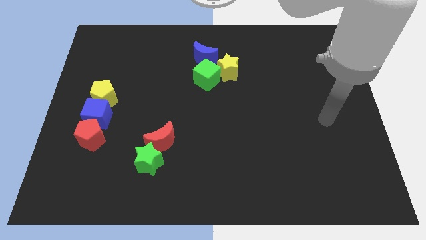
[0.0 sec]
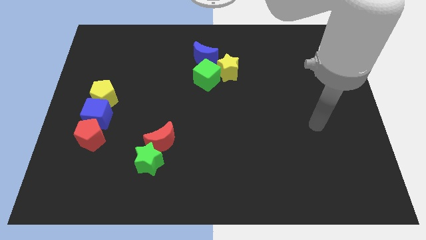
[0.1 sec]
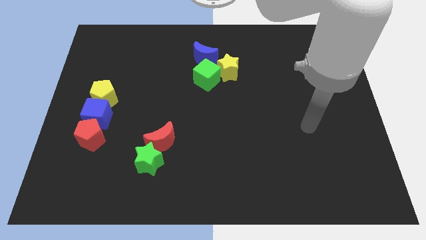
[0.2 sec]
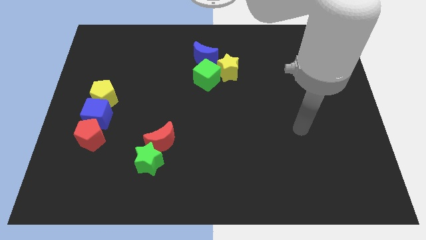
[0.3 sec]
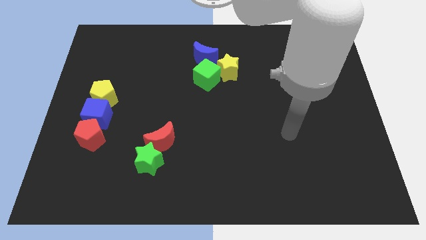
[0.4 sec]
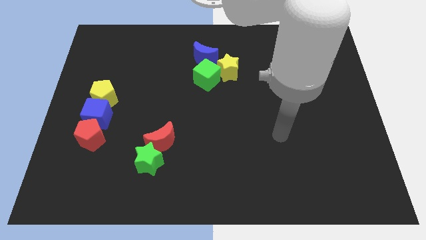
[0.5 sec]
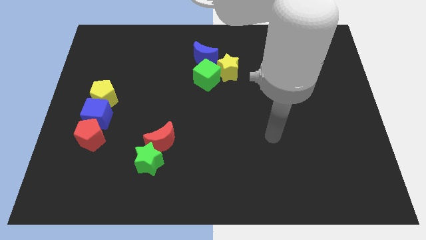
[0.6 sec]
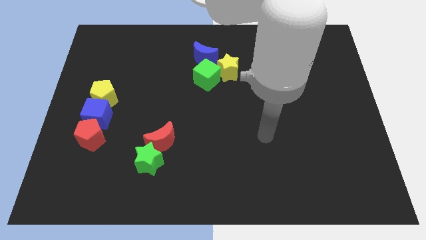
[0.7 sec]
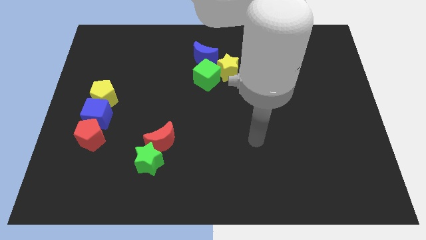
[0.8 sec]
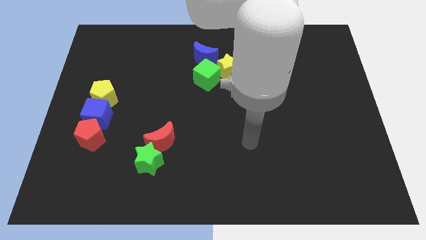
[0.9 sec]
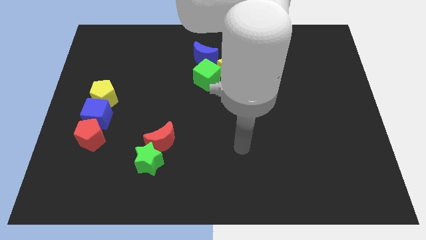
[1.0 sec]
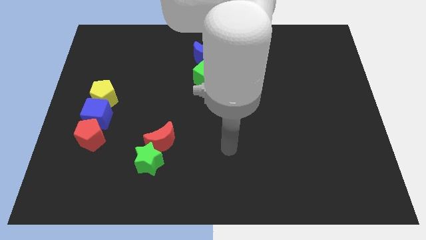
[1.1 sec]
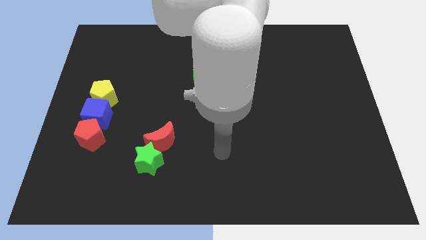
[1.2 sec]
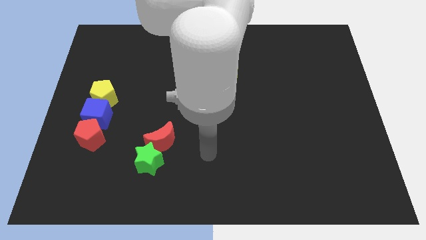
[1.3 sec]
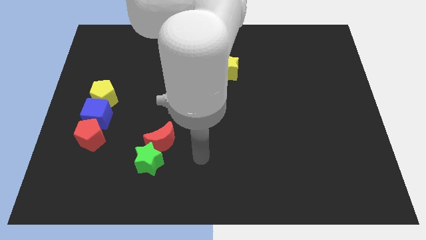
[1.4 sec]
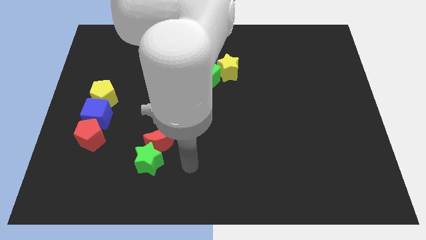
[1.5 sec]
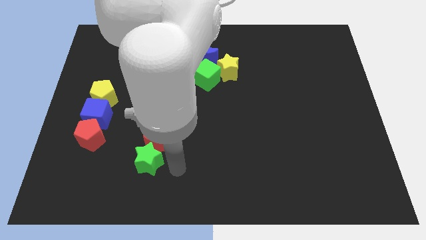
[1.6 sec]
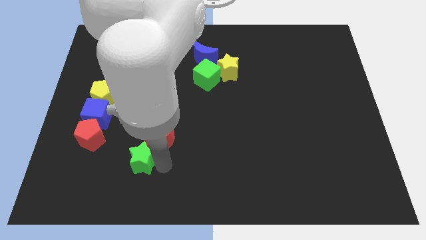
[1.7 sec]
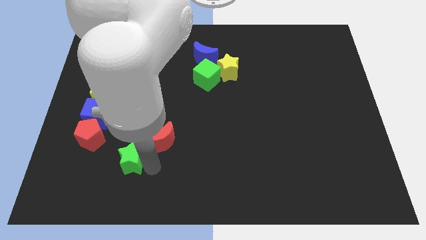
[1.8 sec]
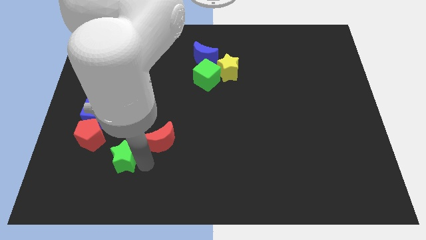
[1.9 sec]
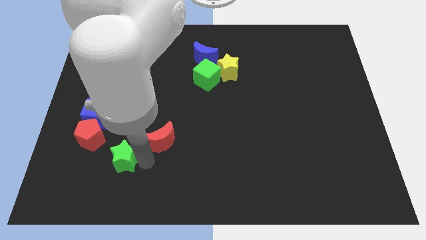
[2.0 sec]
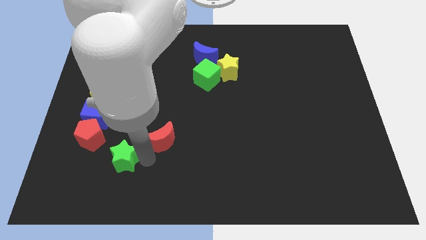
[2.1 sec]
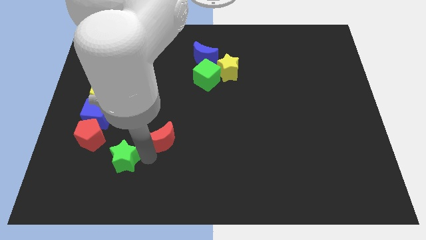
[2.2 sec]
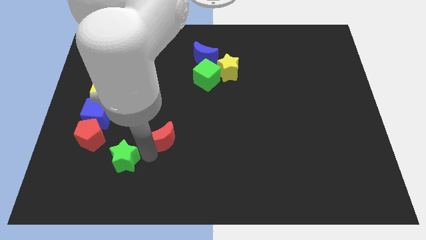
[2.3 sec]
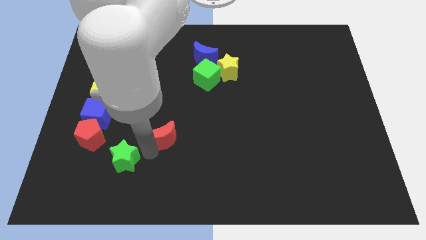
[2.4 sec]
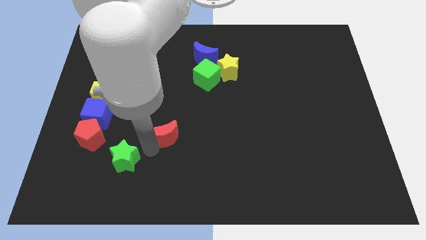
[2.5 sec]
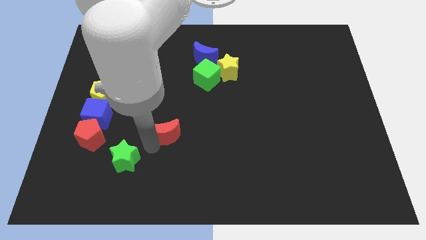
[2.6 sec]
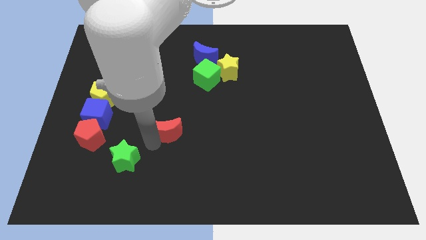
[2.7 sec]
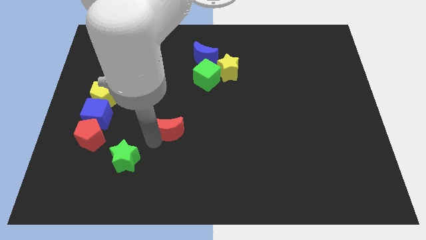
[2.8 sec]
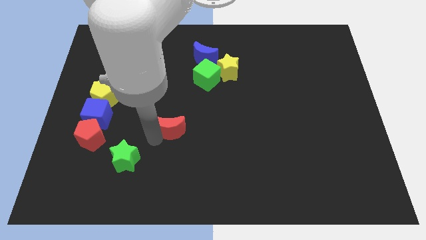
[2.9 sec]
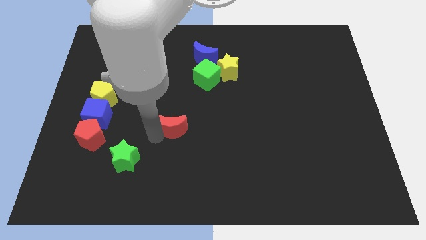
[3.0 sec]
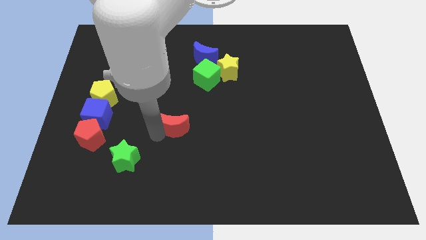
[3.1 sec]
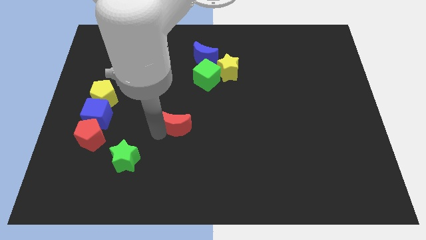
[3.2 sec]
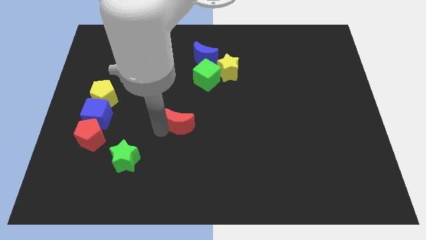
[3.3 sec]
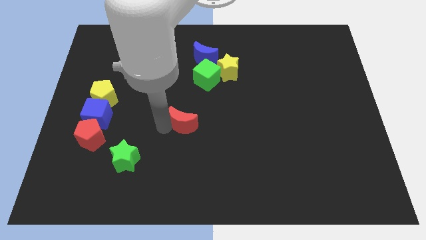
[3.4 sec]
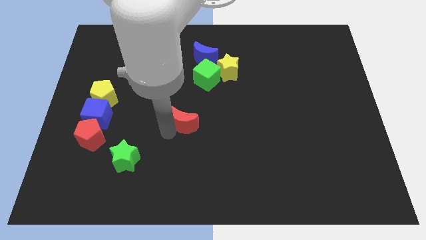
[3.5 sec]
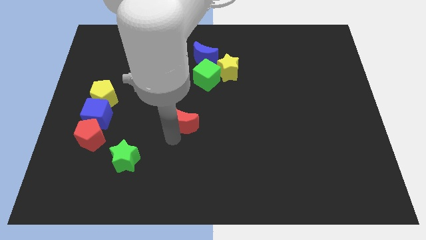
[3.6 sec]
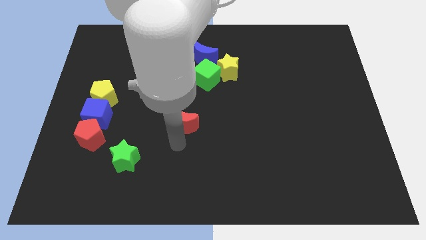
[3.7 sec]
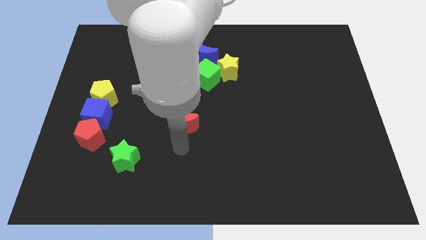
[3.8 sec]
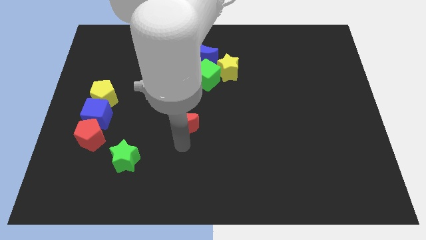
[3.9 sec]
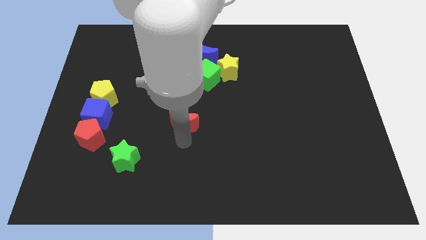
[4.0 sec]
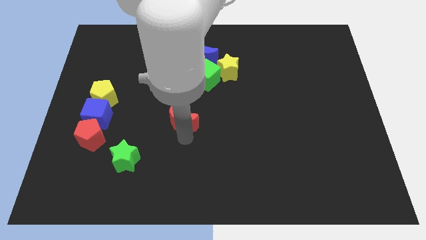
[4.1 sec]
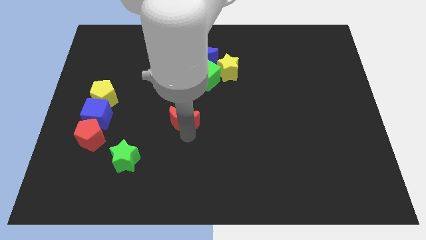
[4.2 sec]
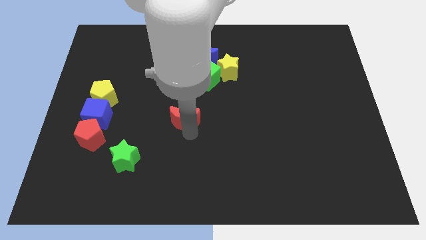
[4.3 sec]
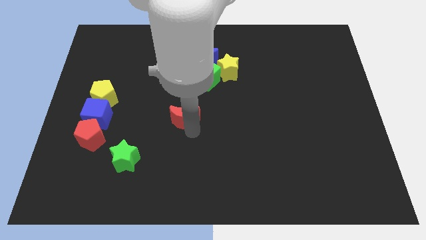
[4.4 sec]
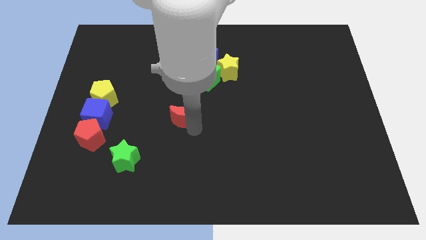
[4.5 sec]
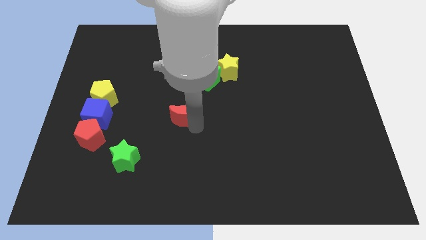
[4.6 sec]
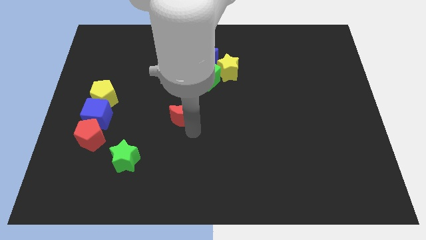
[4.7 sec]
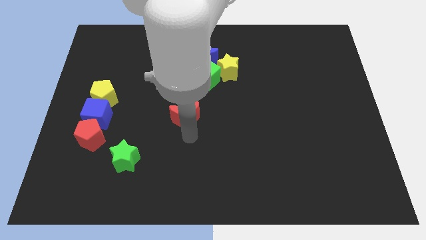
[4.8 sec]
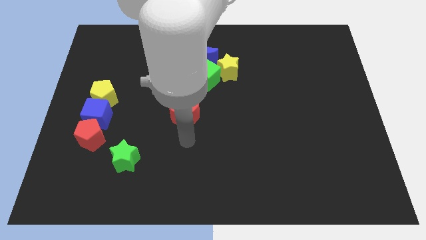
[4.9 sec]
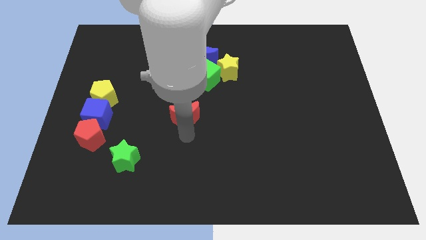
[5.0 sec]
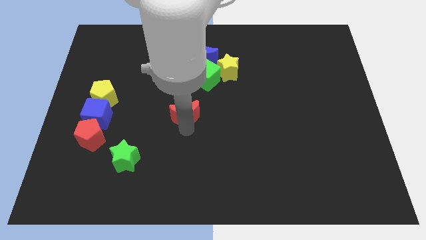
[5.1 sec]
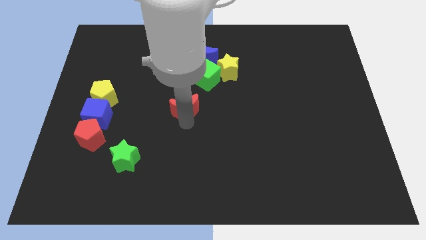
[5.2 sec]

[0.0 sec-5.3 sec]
put the red moon to the bottom left of the green cube

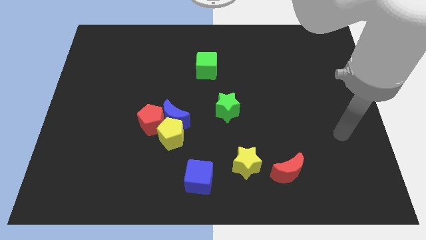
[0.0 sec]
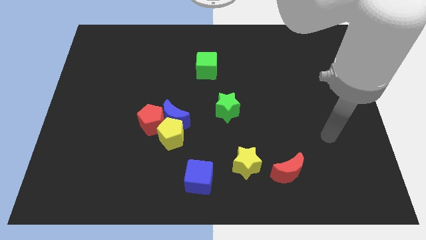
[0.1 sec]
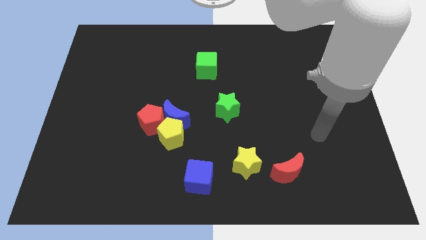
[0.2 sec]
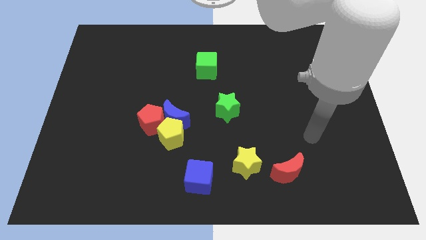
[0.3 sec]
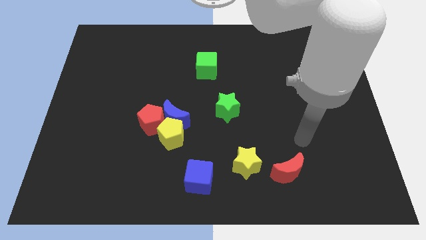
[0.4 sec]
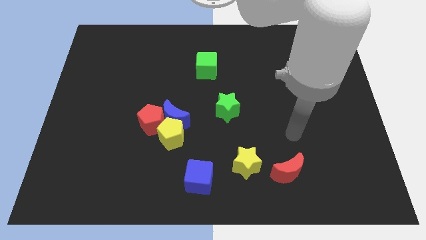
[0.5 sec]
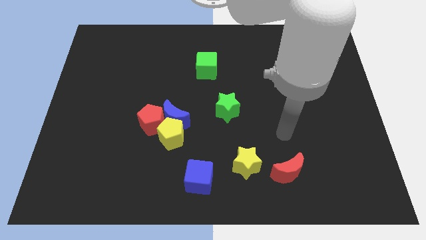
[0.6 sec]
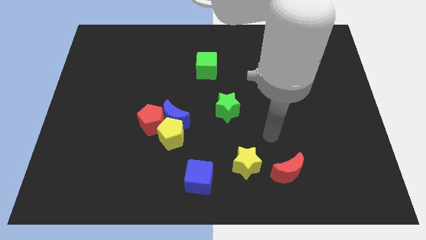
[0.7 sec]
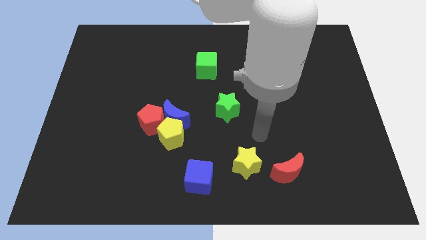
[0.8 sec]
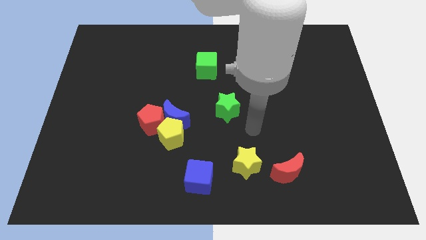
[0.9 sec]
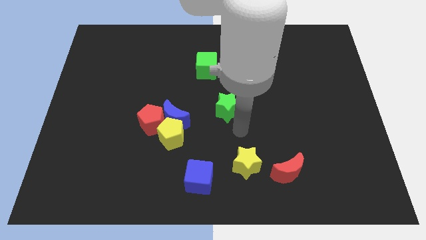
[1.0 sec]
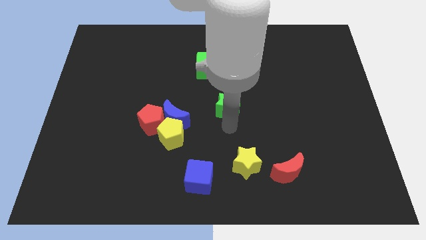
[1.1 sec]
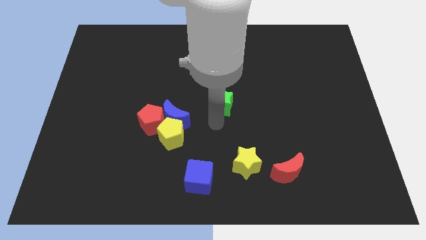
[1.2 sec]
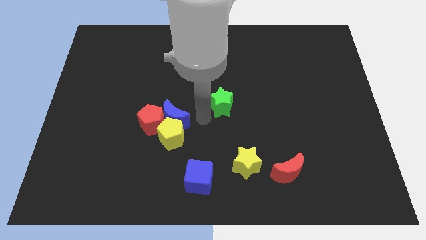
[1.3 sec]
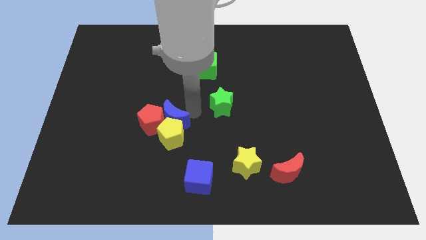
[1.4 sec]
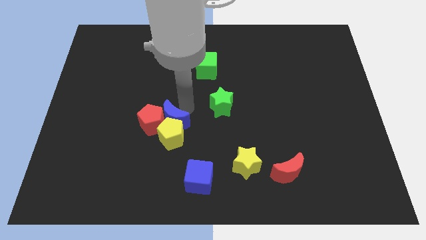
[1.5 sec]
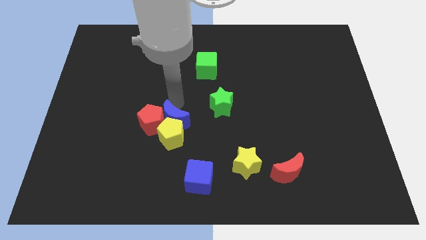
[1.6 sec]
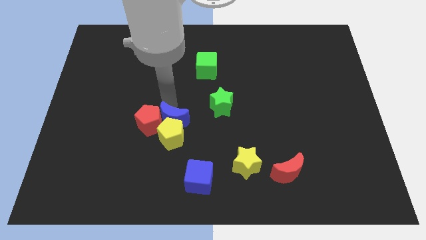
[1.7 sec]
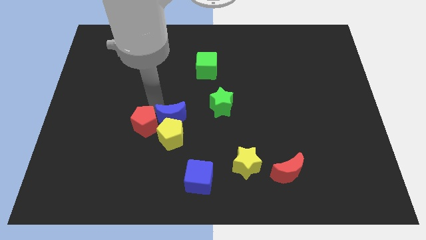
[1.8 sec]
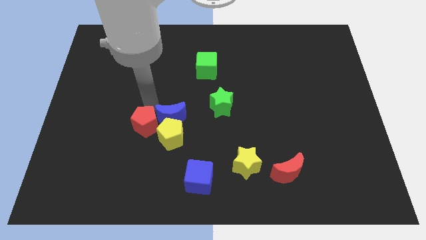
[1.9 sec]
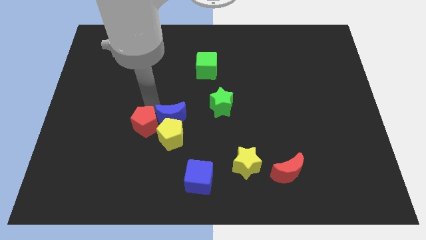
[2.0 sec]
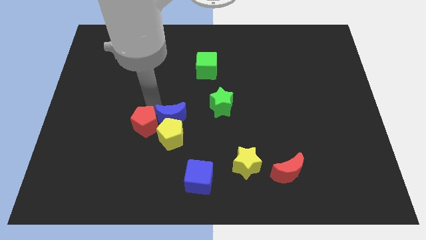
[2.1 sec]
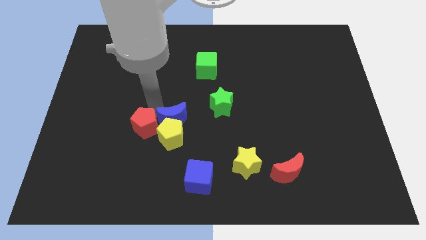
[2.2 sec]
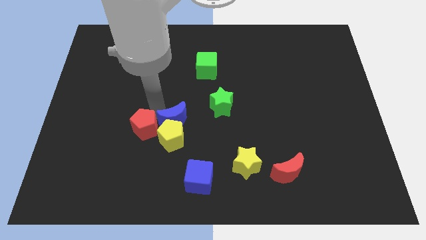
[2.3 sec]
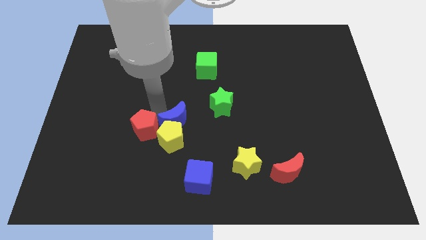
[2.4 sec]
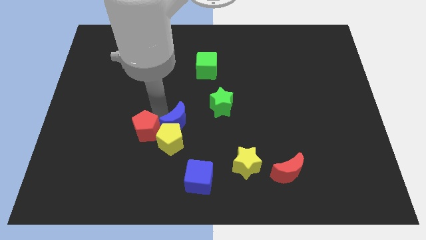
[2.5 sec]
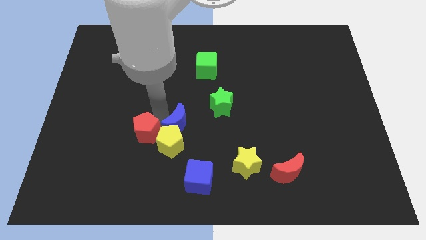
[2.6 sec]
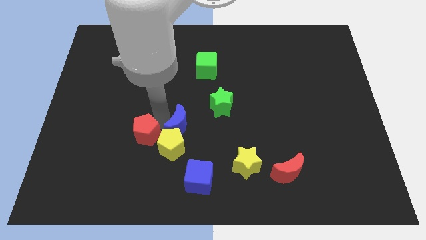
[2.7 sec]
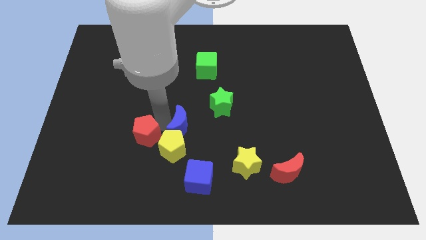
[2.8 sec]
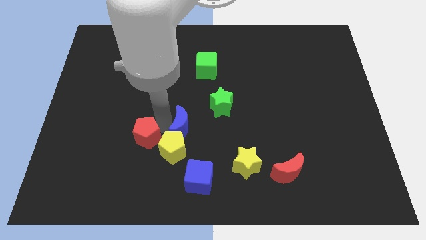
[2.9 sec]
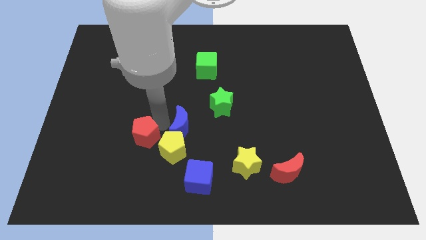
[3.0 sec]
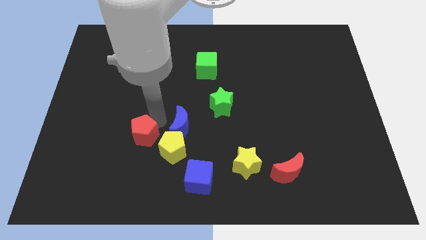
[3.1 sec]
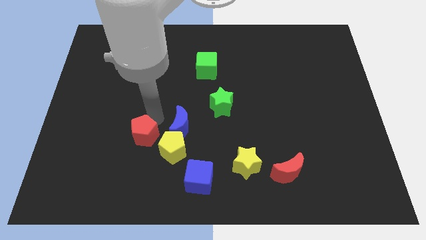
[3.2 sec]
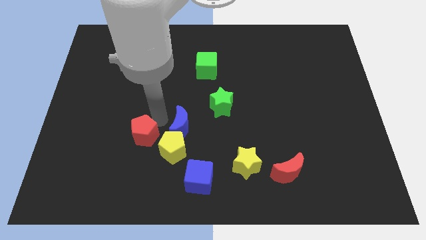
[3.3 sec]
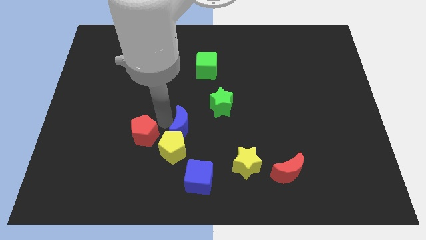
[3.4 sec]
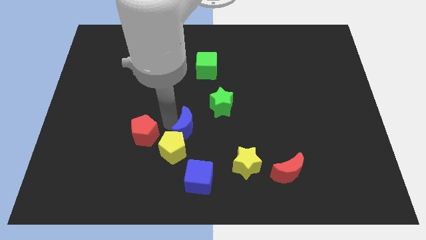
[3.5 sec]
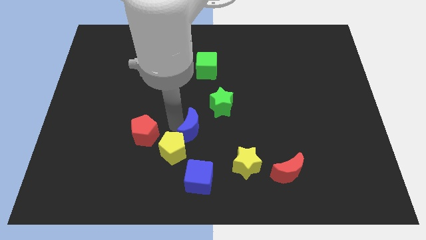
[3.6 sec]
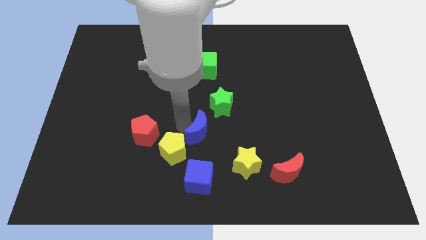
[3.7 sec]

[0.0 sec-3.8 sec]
push the blue moon to the bottom side of the green star
